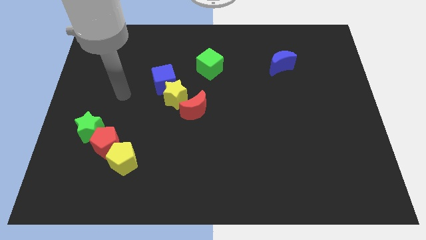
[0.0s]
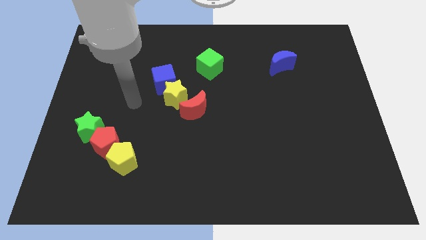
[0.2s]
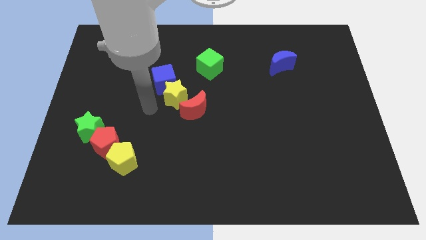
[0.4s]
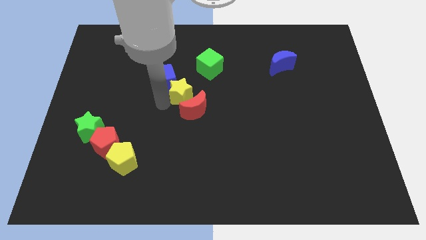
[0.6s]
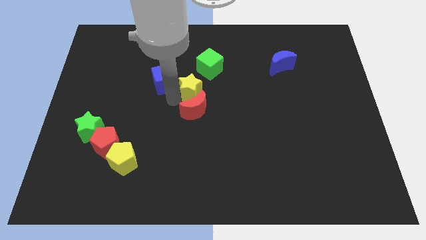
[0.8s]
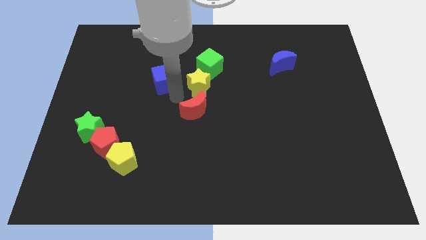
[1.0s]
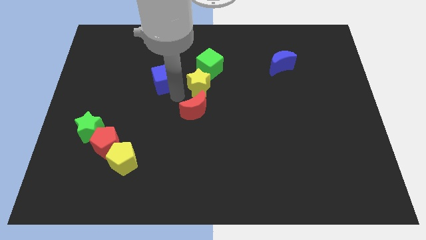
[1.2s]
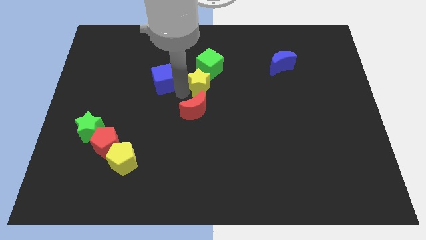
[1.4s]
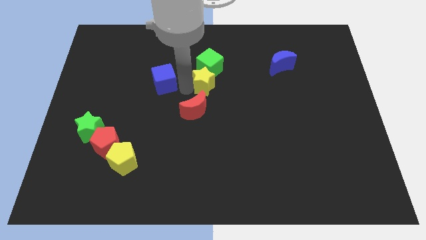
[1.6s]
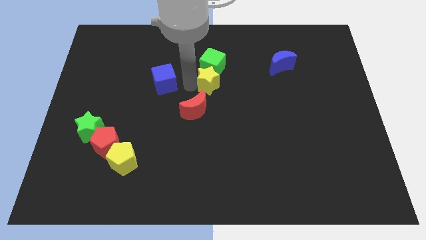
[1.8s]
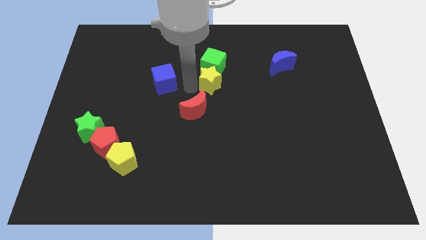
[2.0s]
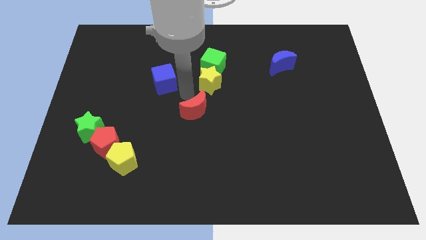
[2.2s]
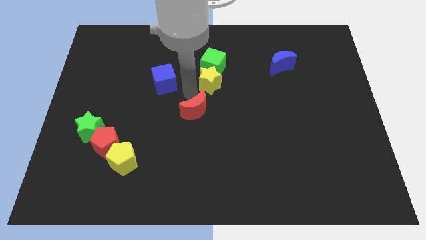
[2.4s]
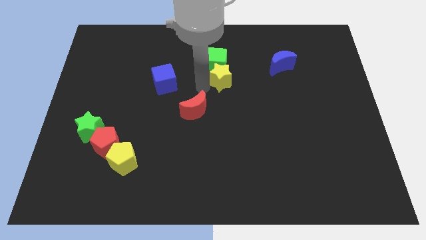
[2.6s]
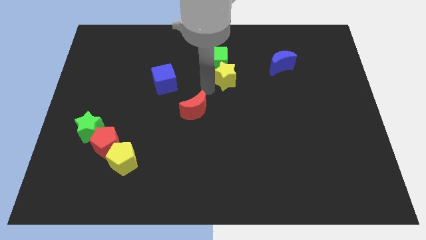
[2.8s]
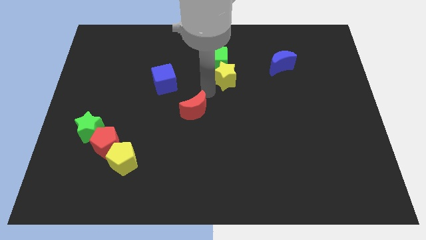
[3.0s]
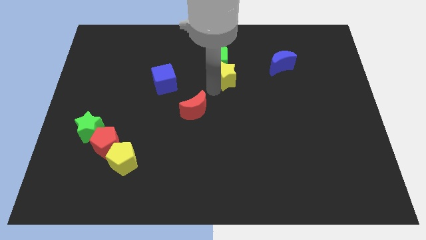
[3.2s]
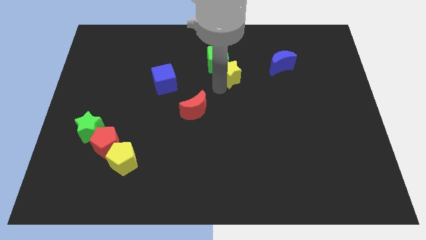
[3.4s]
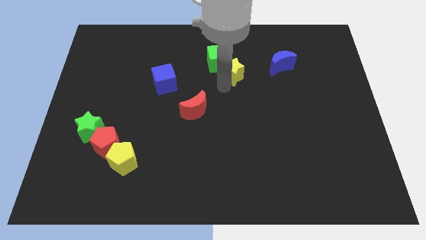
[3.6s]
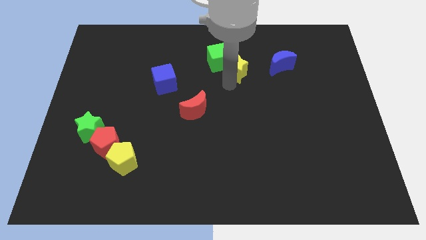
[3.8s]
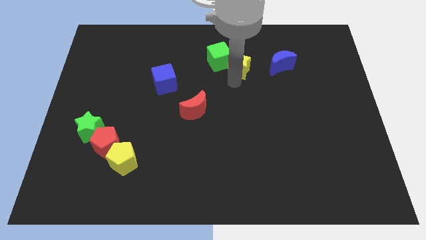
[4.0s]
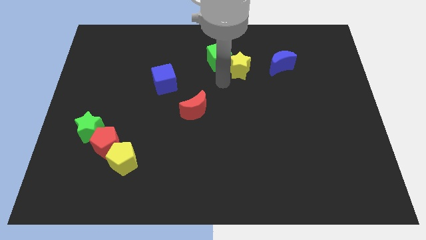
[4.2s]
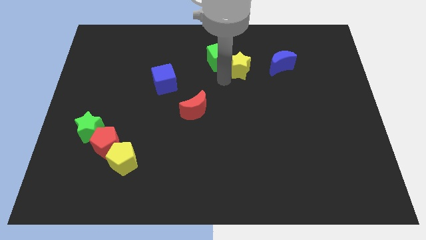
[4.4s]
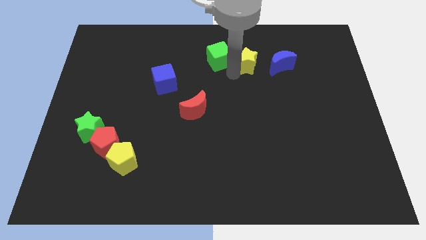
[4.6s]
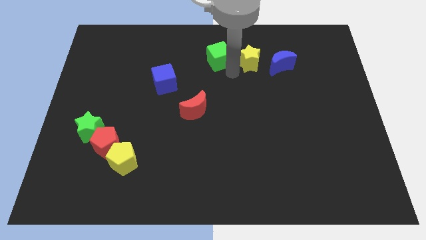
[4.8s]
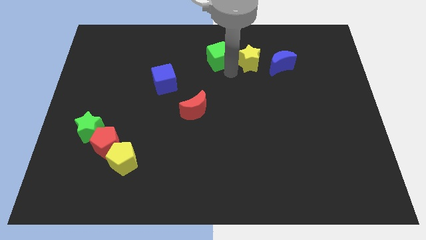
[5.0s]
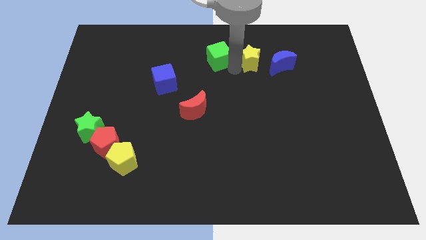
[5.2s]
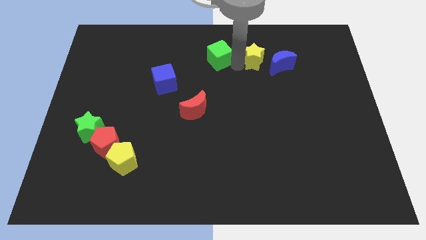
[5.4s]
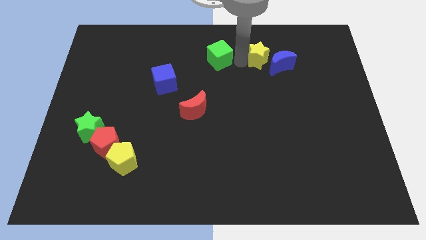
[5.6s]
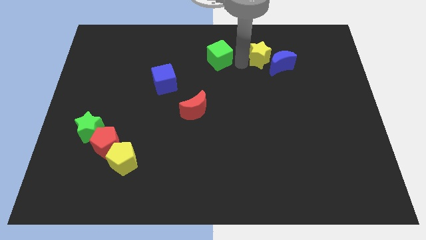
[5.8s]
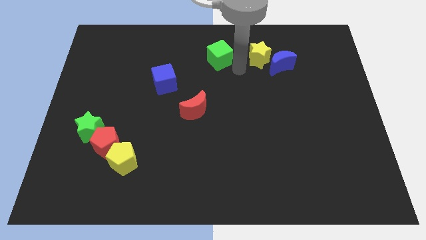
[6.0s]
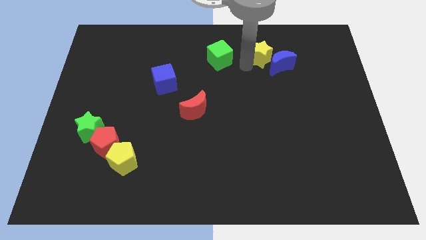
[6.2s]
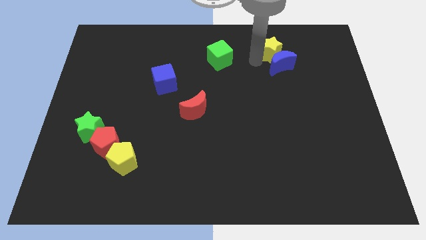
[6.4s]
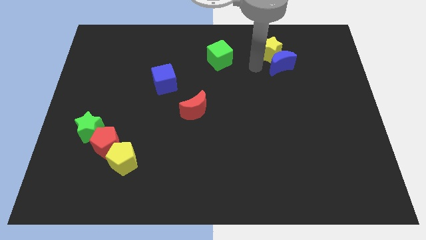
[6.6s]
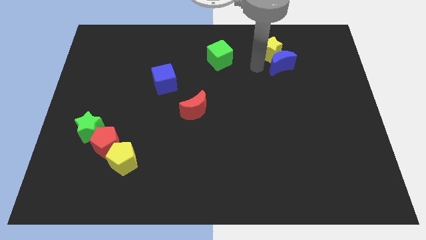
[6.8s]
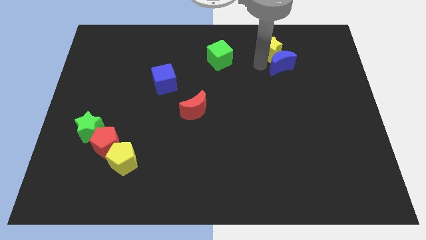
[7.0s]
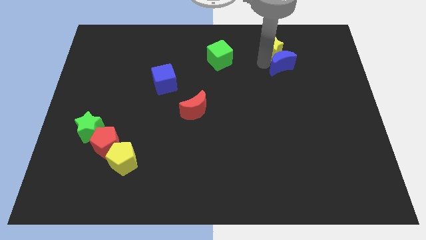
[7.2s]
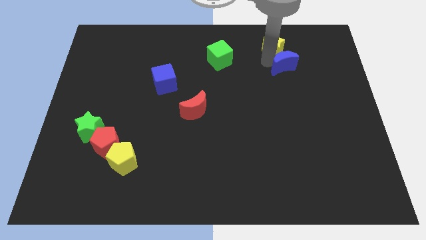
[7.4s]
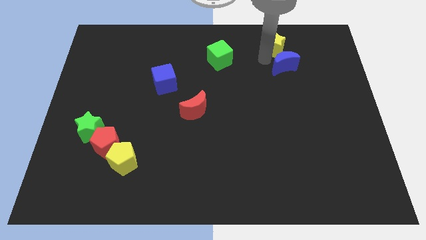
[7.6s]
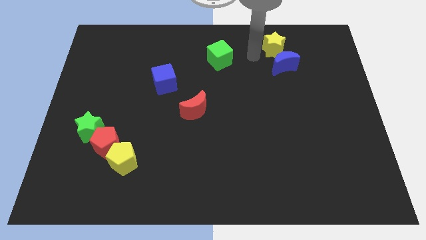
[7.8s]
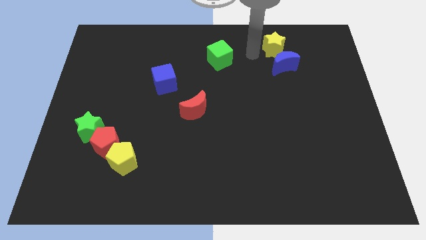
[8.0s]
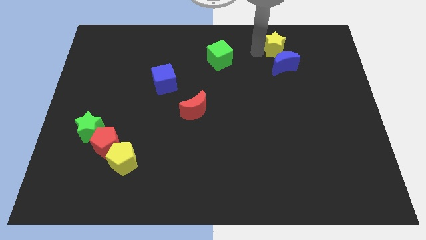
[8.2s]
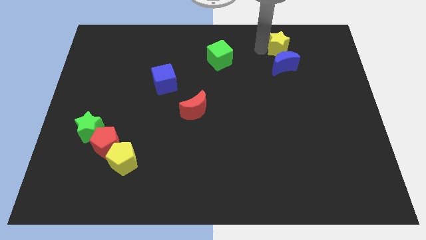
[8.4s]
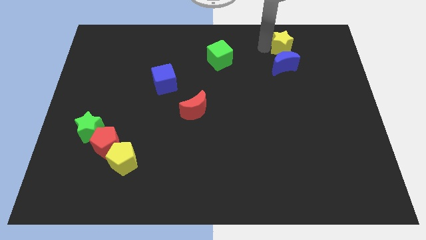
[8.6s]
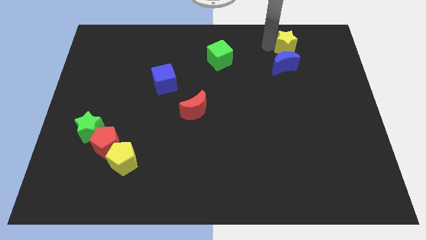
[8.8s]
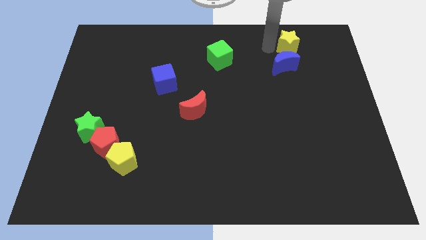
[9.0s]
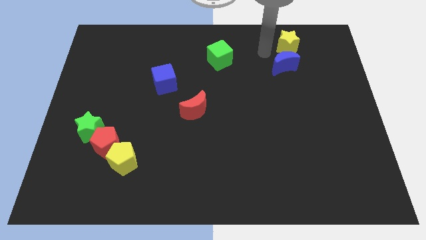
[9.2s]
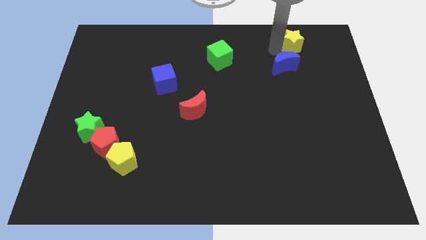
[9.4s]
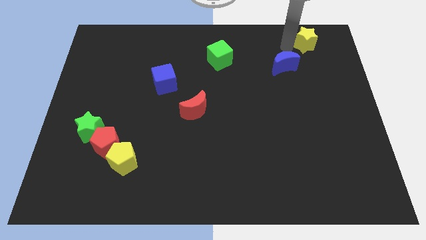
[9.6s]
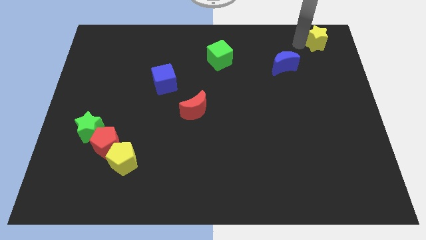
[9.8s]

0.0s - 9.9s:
put the yellow star to the top right
